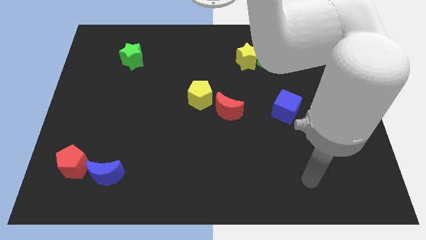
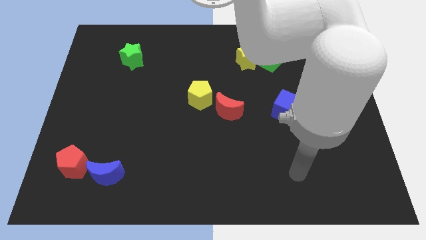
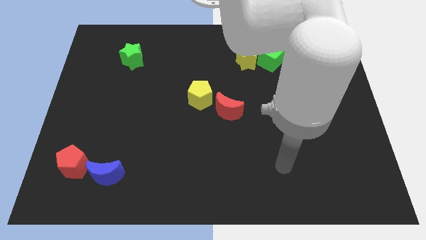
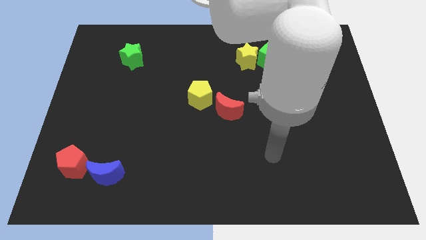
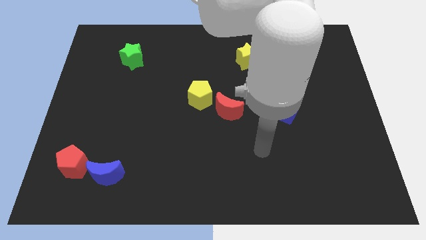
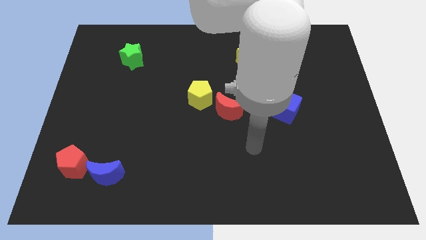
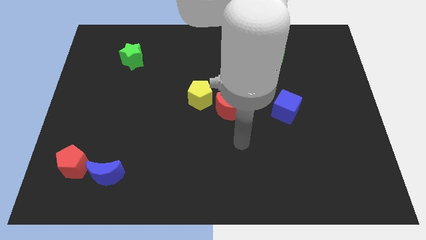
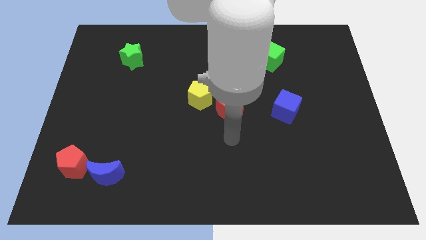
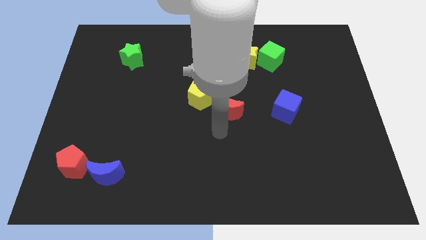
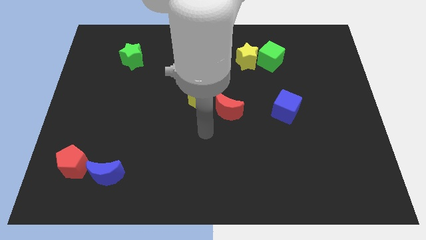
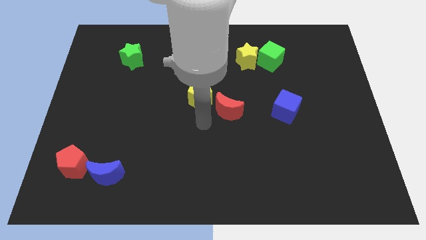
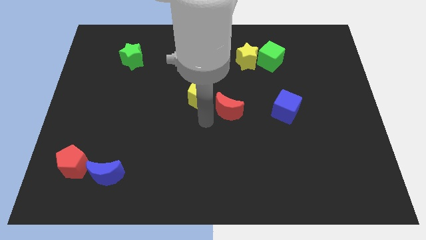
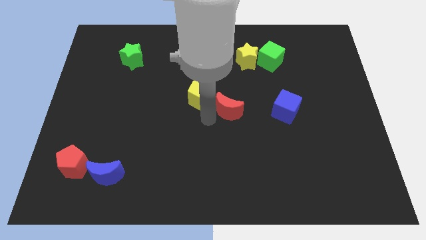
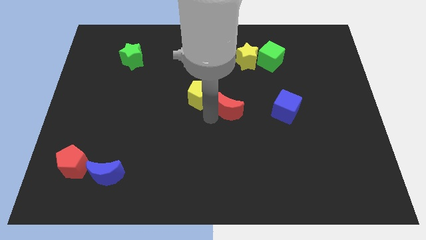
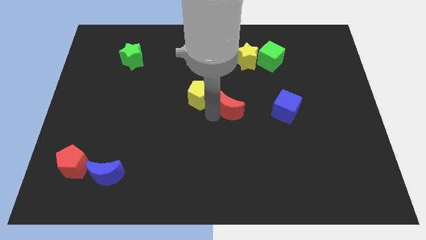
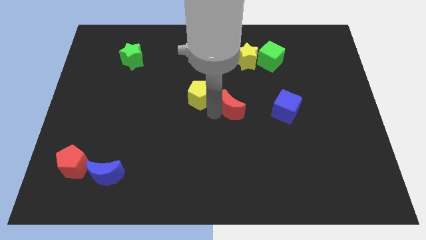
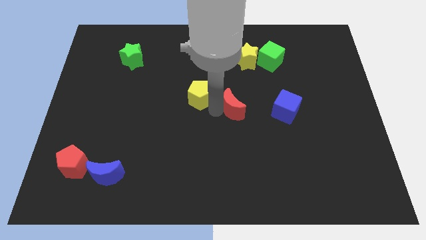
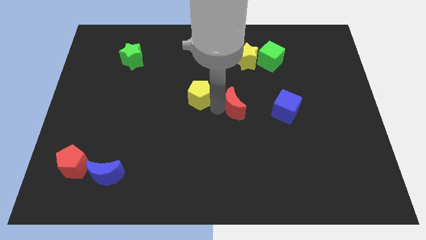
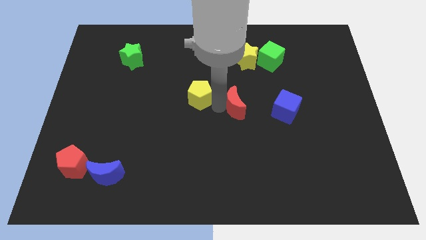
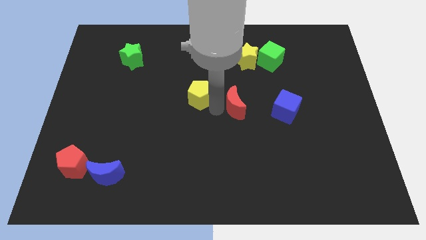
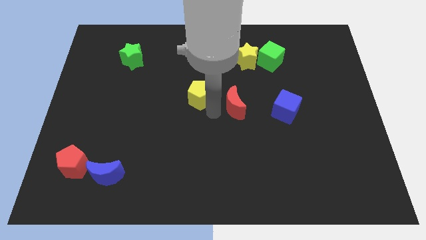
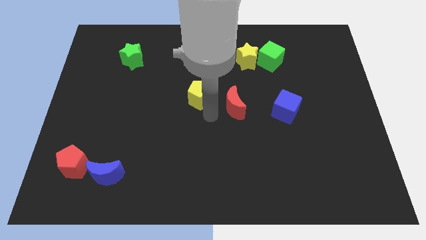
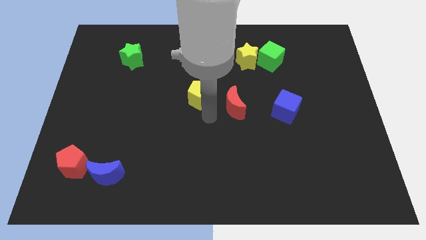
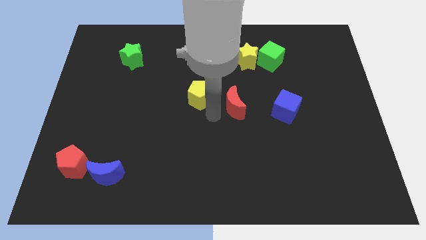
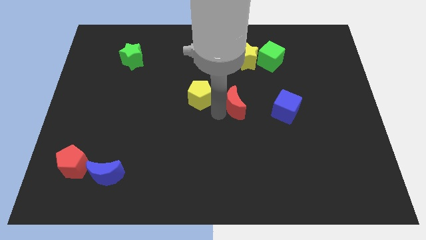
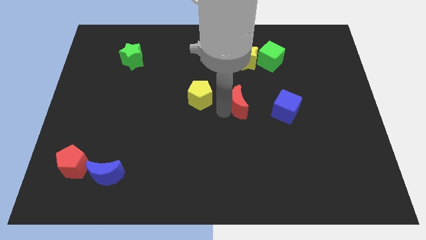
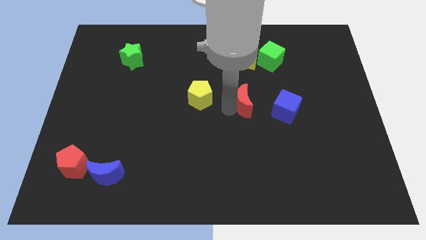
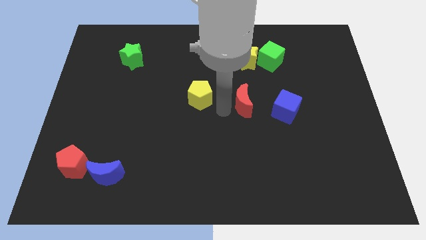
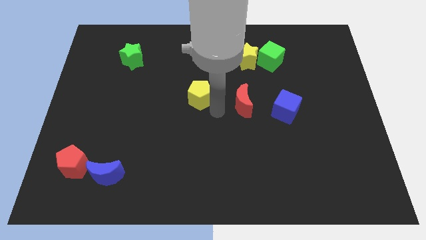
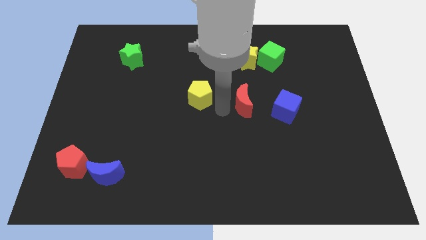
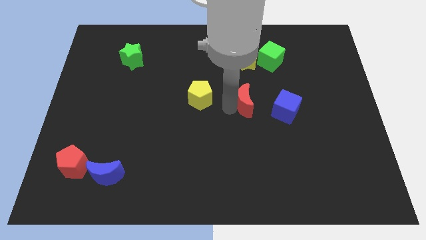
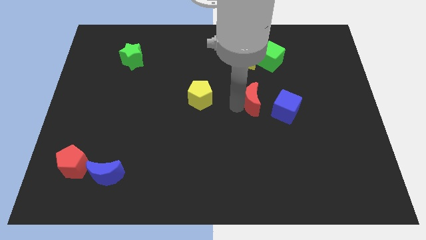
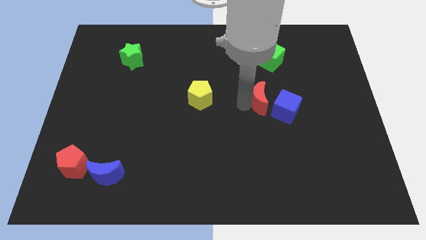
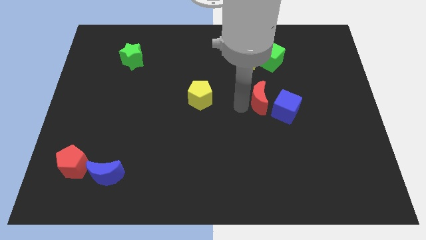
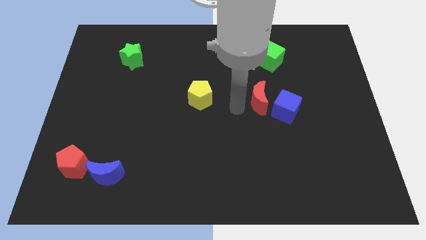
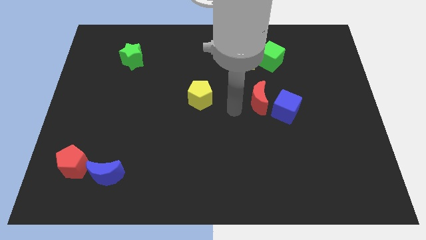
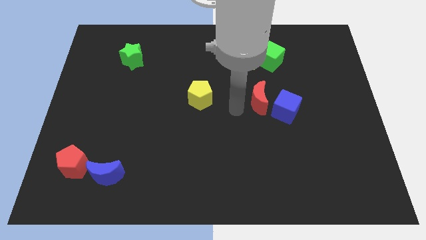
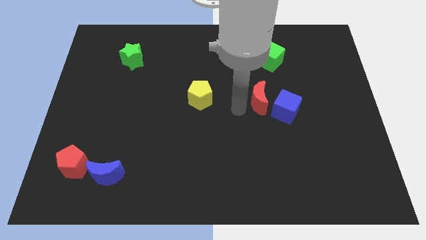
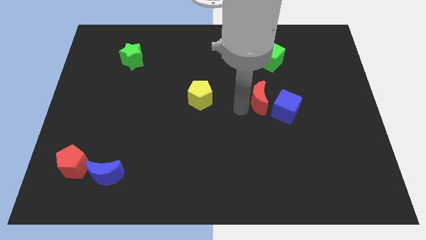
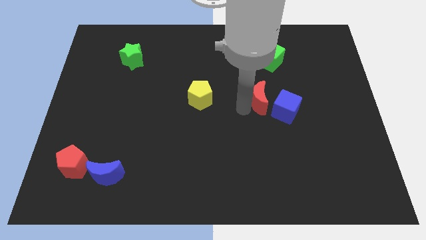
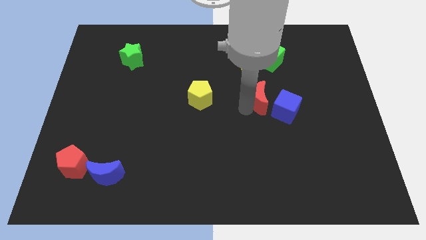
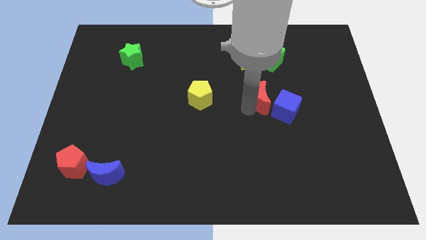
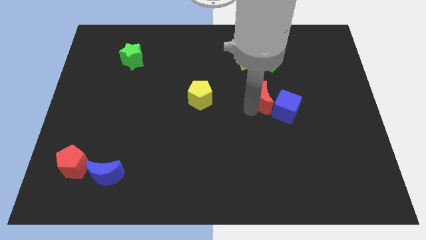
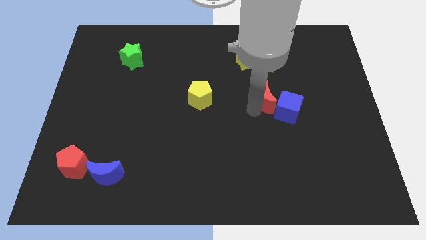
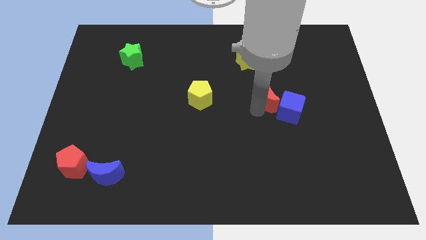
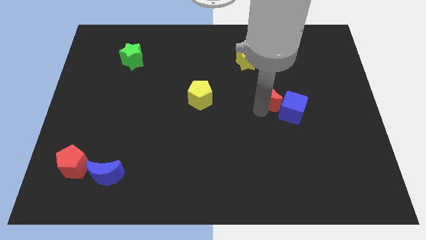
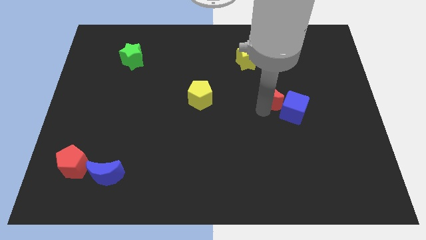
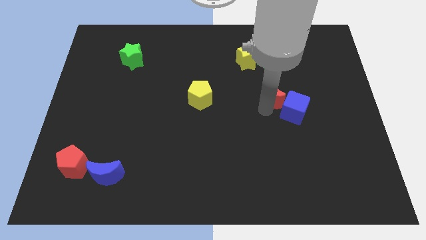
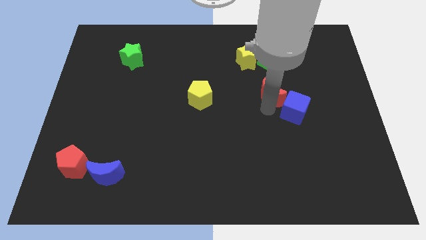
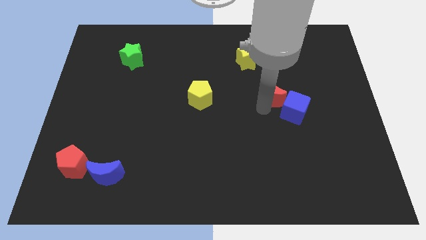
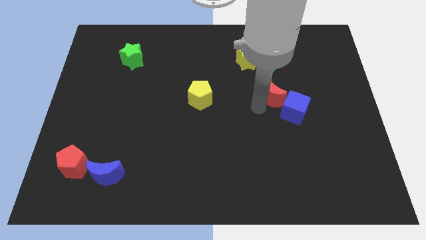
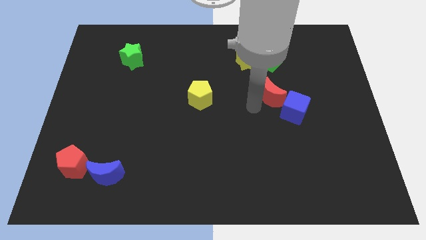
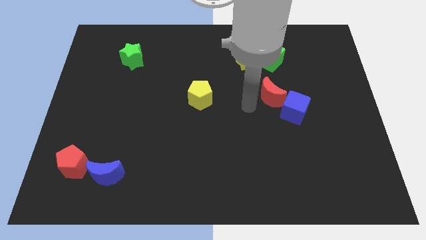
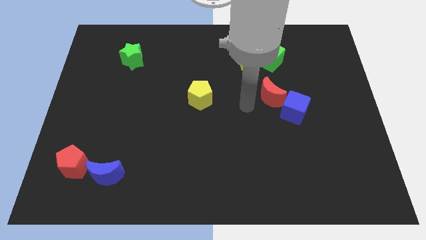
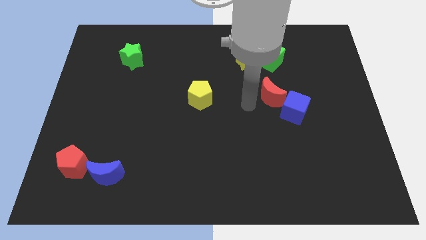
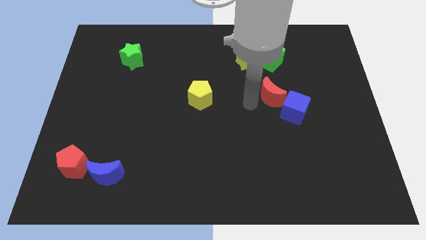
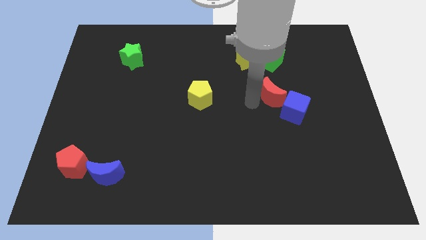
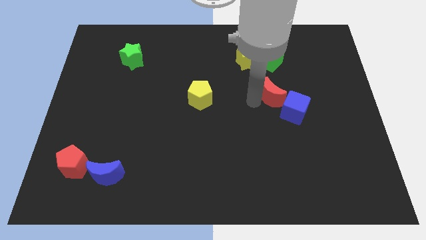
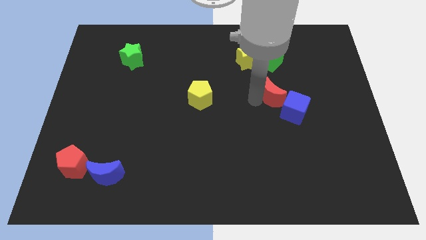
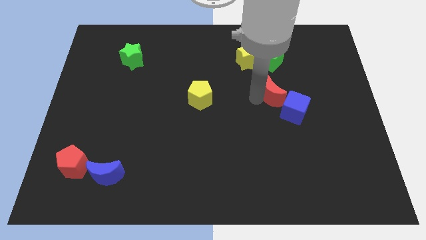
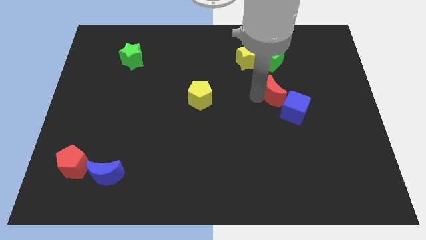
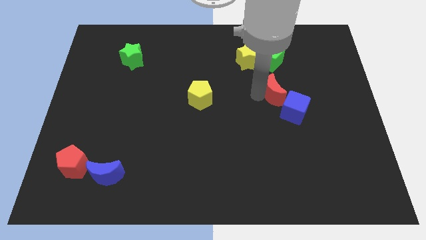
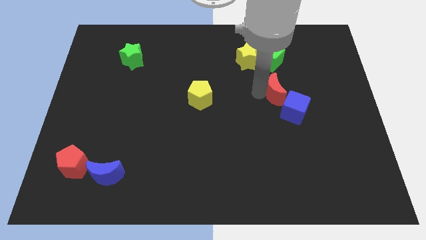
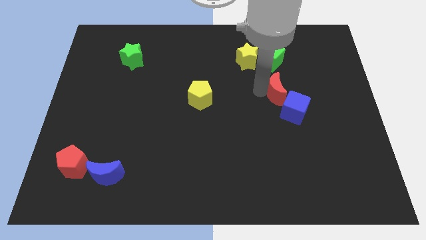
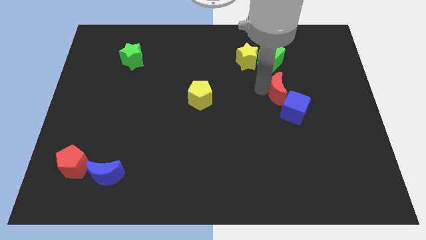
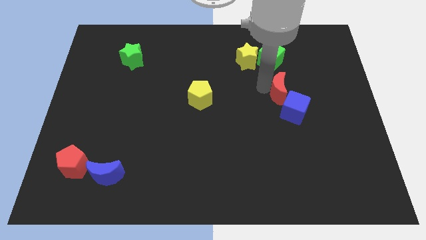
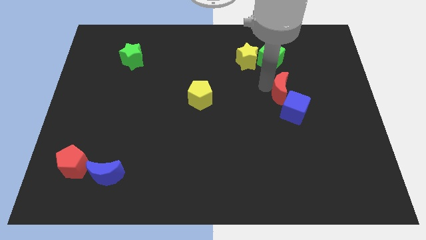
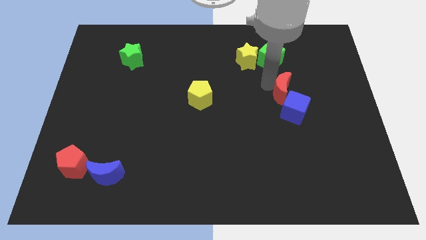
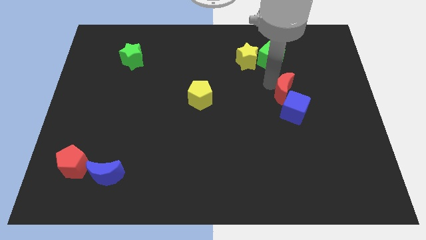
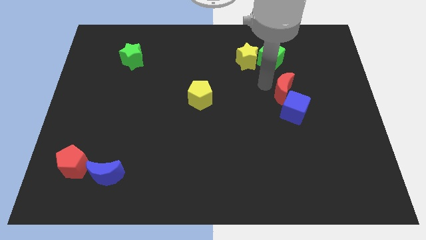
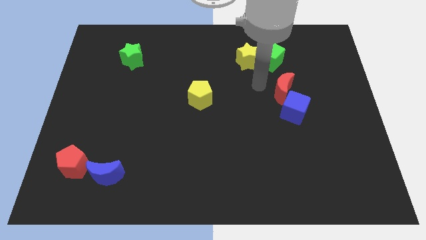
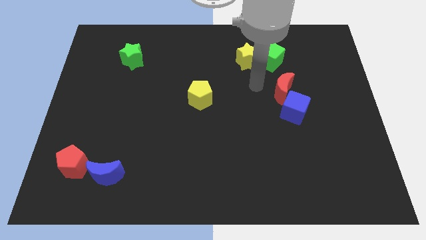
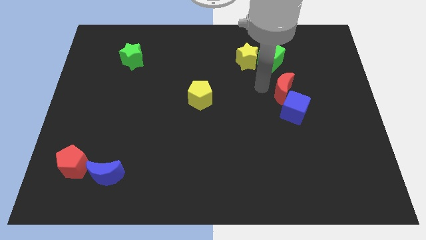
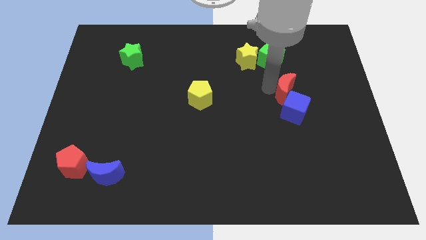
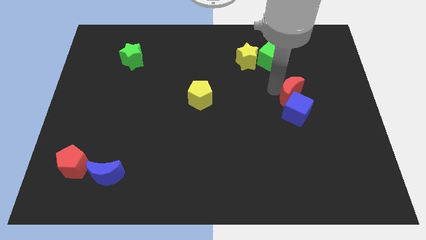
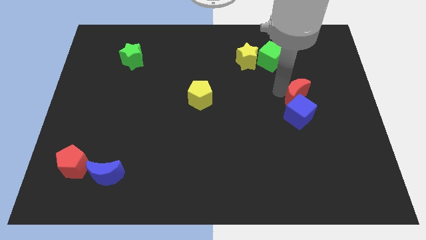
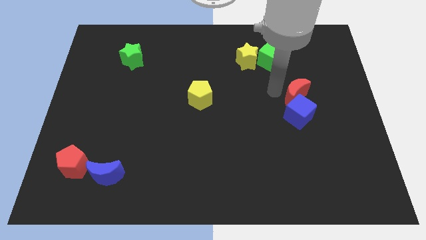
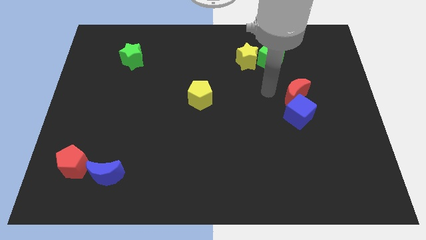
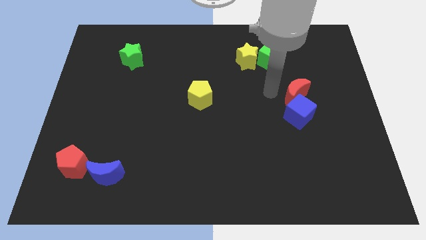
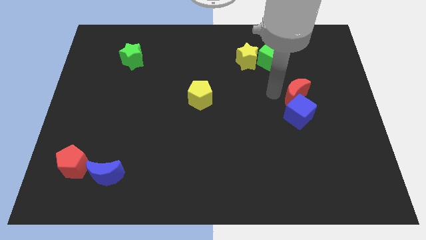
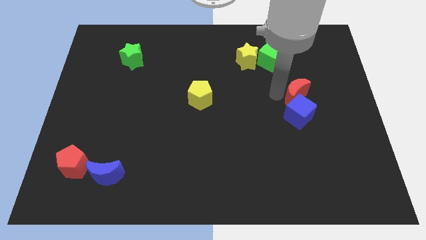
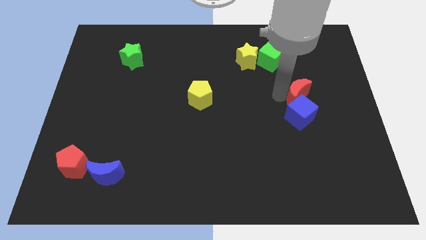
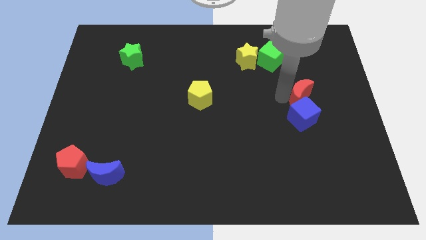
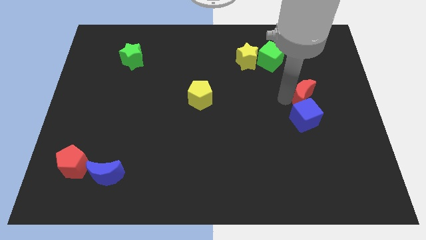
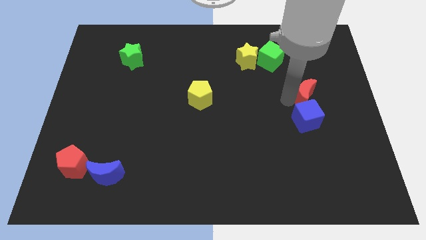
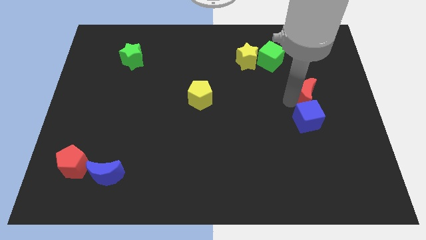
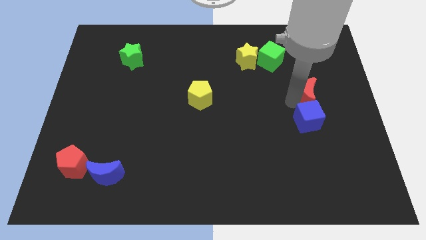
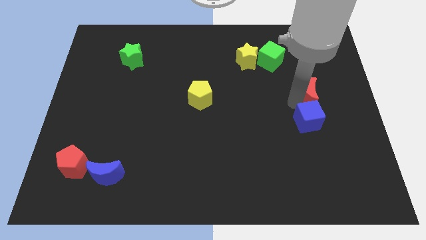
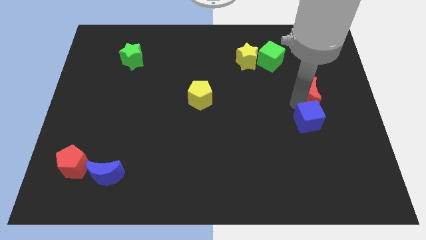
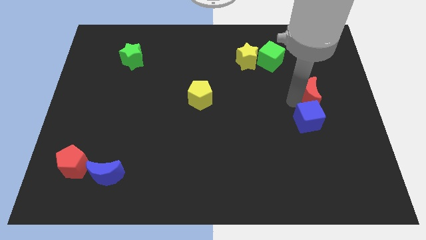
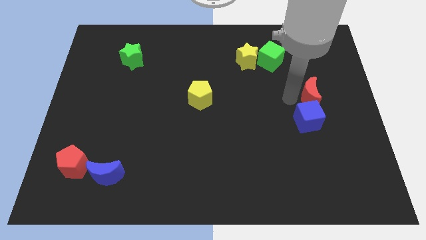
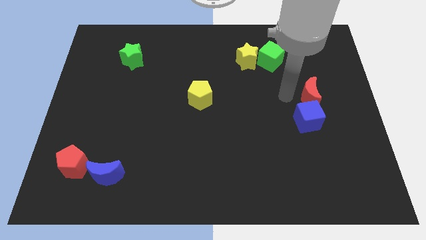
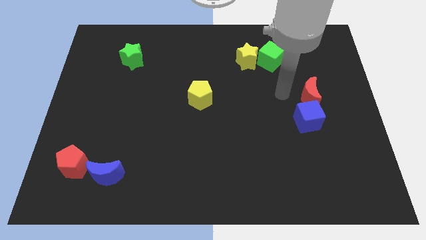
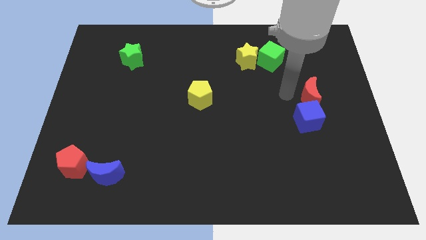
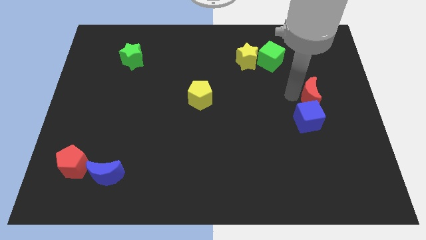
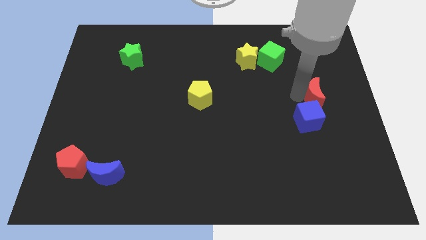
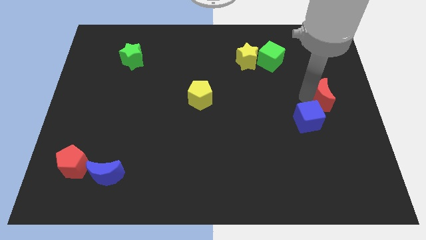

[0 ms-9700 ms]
put the red moon to the right side
